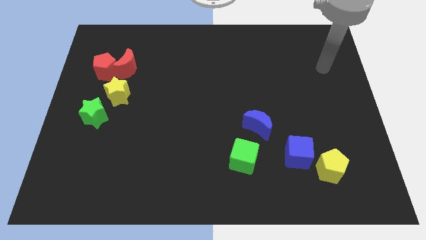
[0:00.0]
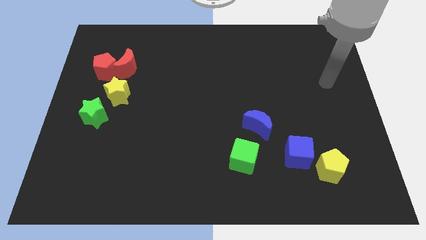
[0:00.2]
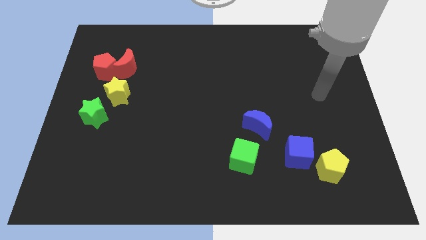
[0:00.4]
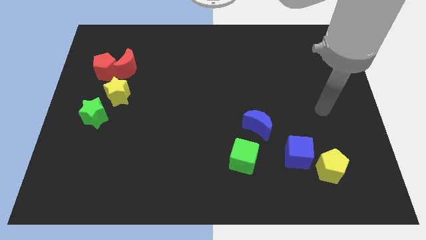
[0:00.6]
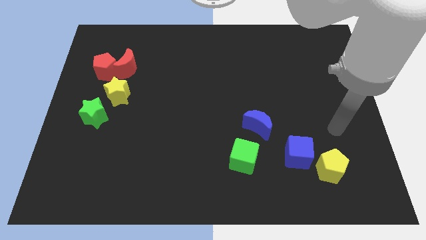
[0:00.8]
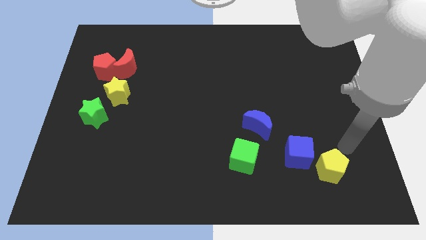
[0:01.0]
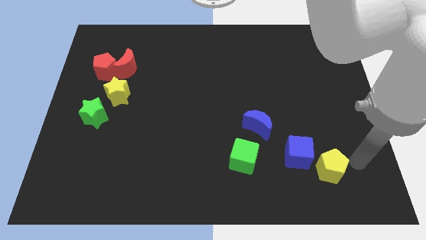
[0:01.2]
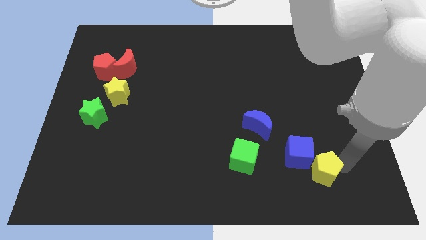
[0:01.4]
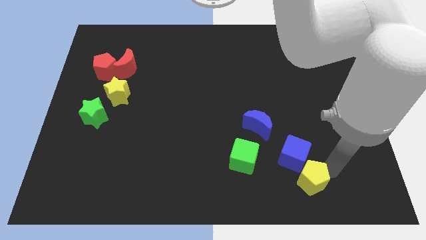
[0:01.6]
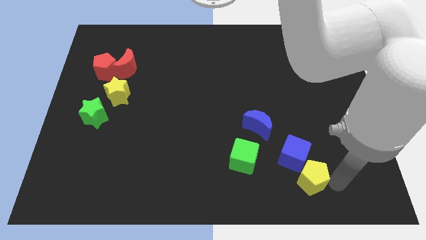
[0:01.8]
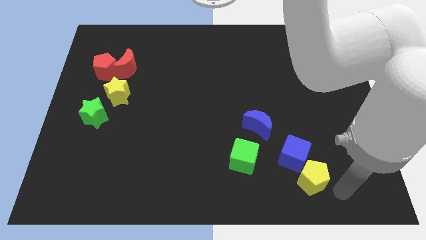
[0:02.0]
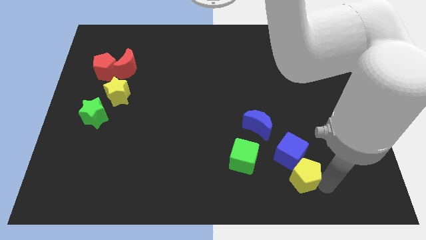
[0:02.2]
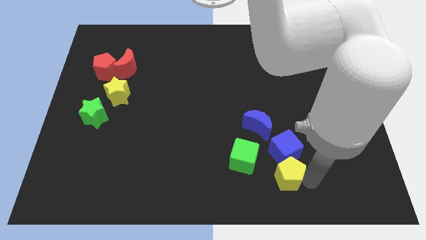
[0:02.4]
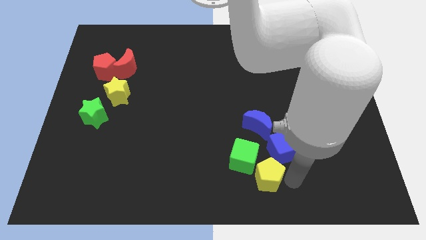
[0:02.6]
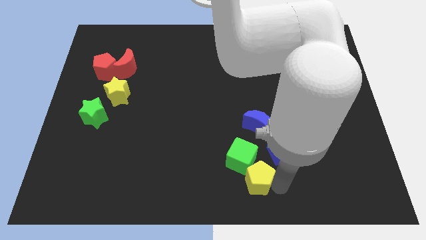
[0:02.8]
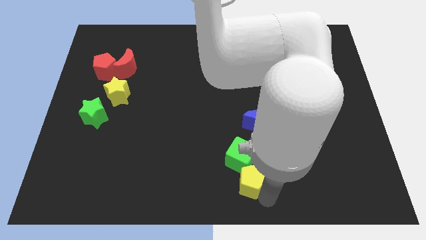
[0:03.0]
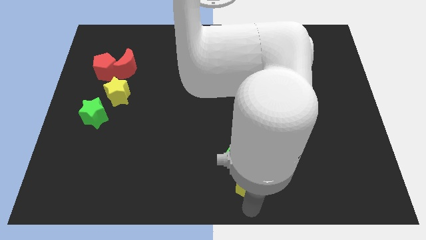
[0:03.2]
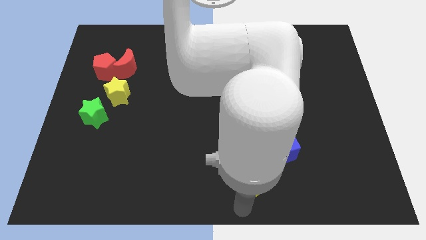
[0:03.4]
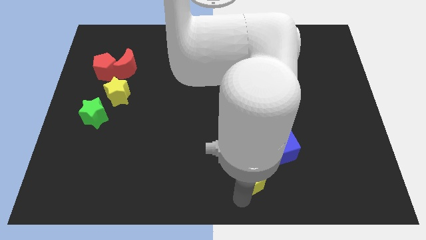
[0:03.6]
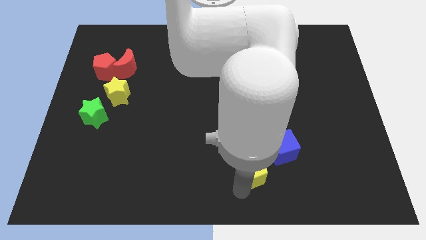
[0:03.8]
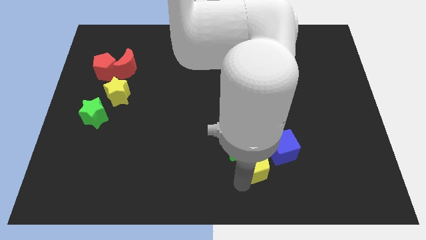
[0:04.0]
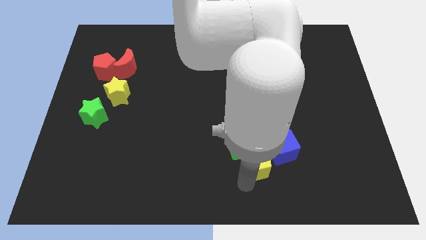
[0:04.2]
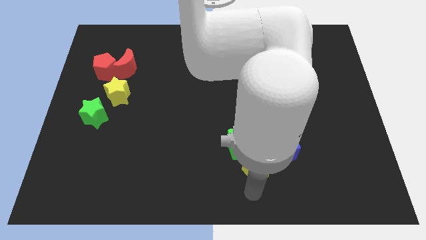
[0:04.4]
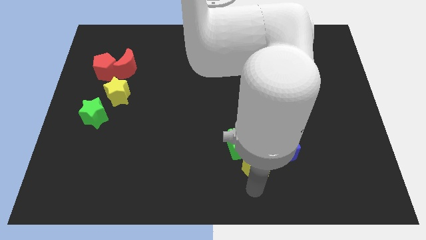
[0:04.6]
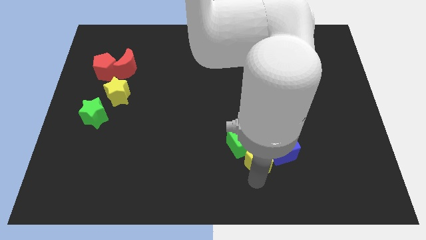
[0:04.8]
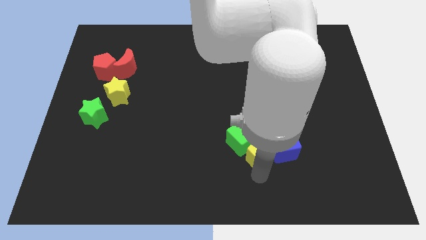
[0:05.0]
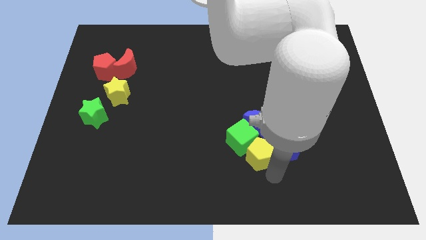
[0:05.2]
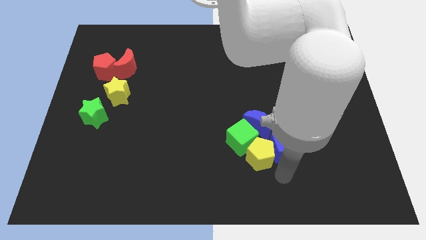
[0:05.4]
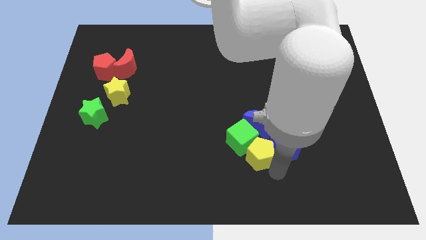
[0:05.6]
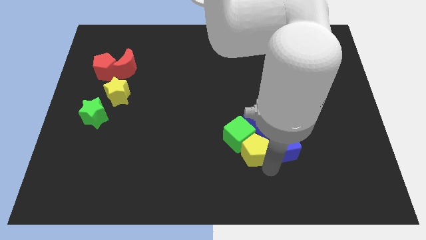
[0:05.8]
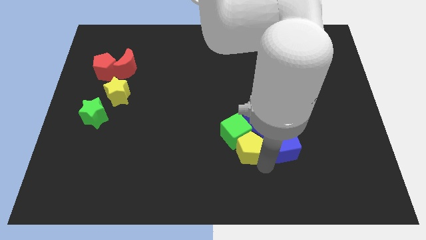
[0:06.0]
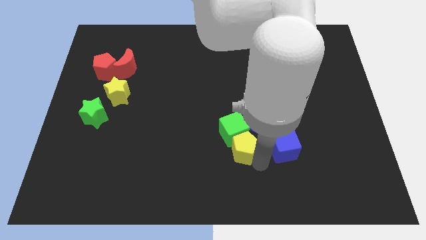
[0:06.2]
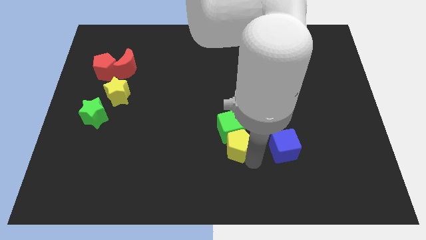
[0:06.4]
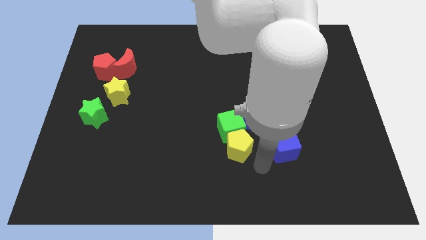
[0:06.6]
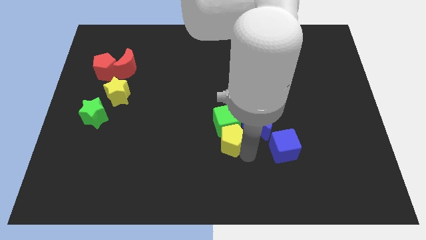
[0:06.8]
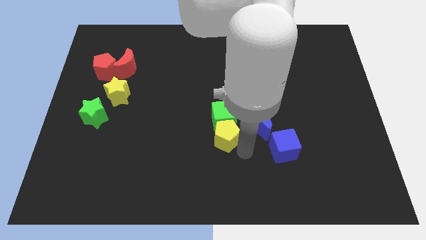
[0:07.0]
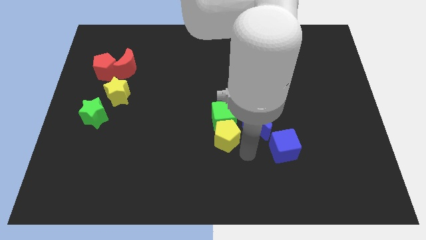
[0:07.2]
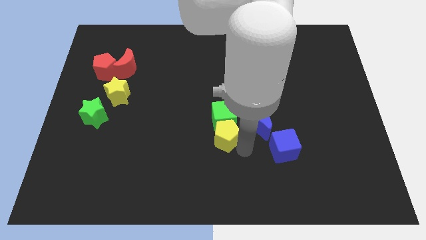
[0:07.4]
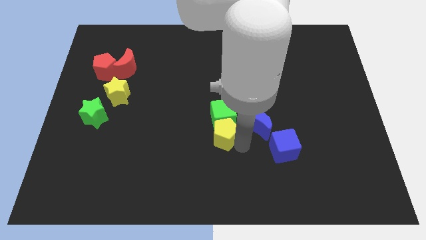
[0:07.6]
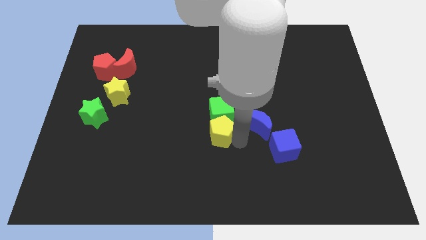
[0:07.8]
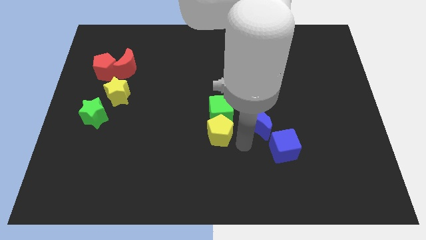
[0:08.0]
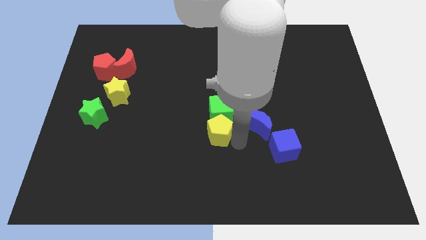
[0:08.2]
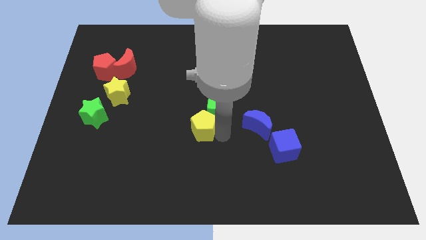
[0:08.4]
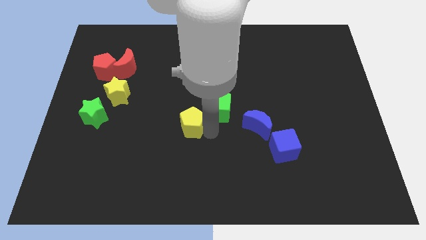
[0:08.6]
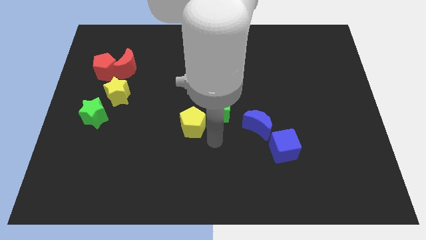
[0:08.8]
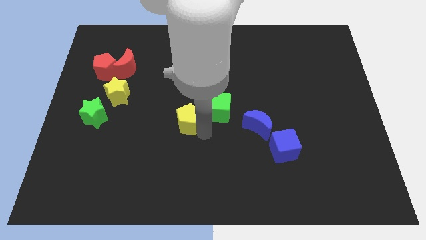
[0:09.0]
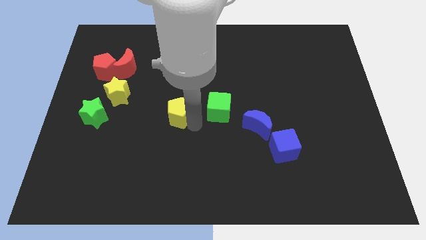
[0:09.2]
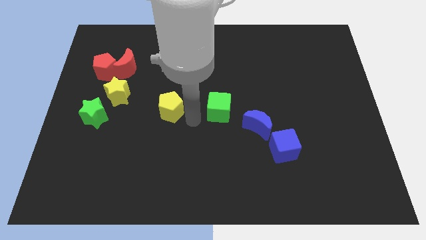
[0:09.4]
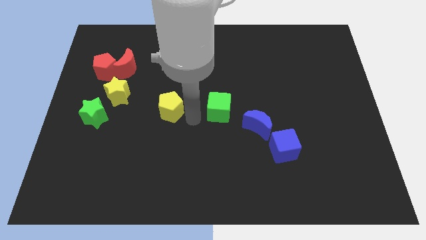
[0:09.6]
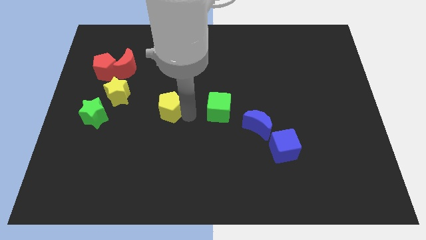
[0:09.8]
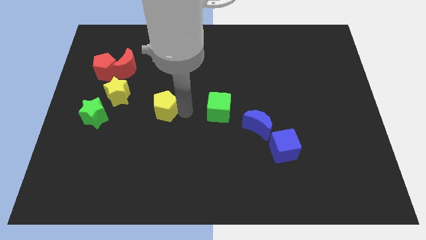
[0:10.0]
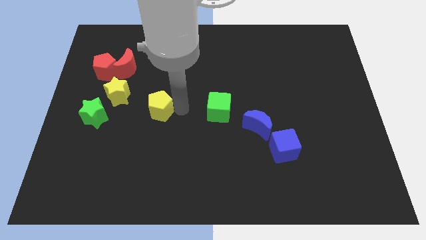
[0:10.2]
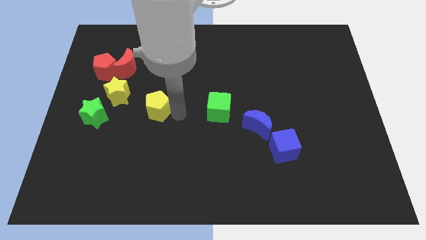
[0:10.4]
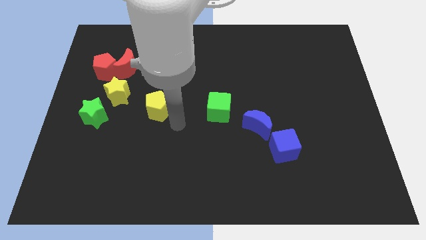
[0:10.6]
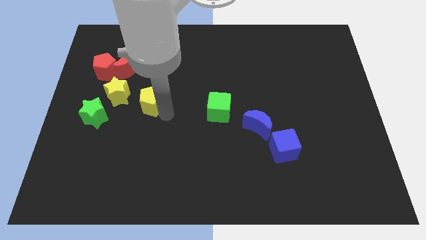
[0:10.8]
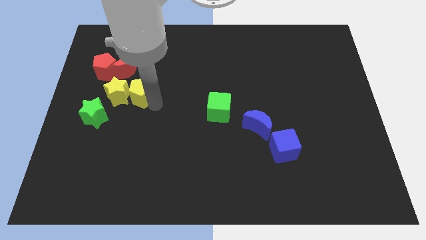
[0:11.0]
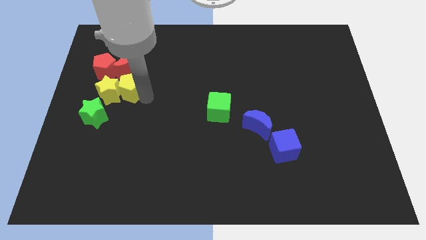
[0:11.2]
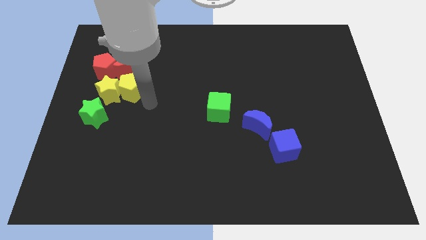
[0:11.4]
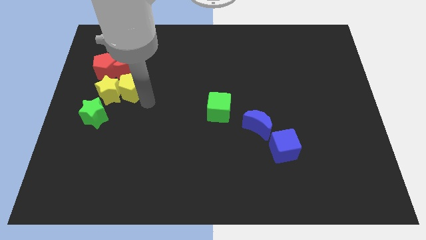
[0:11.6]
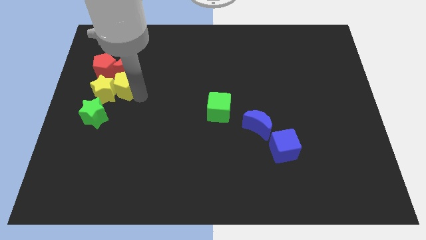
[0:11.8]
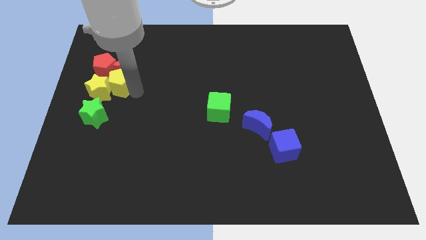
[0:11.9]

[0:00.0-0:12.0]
put the yellow pentagon to the bottom left side of the red moon

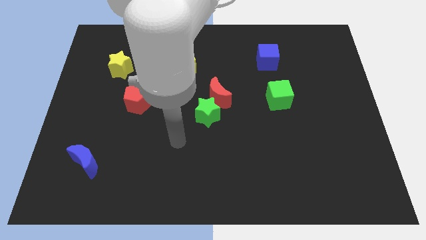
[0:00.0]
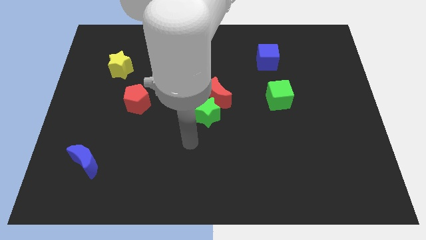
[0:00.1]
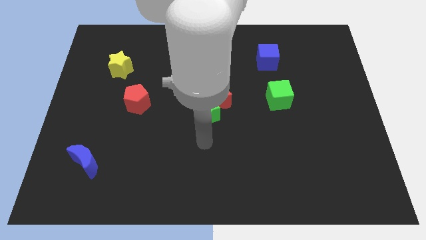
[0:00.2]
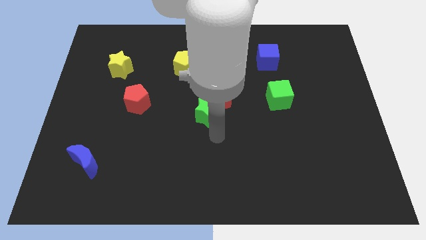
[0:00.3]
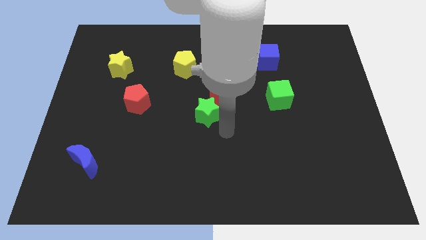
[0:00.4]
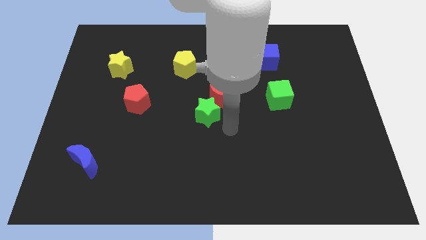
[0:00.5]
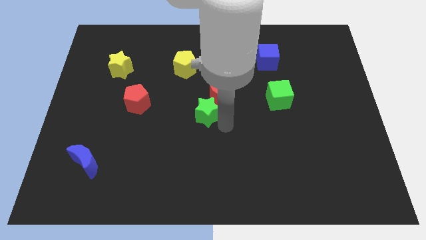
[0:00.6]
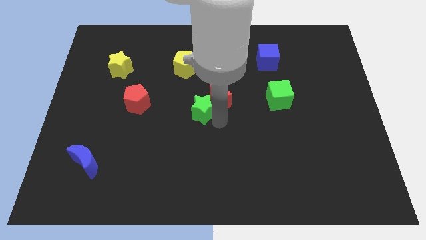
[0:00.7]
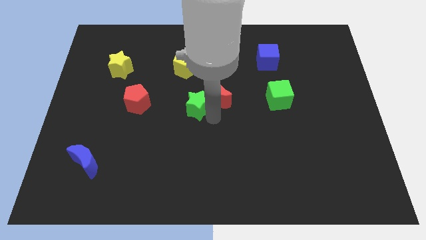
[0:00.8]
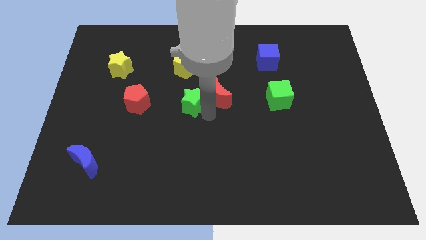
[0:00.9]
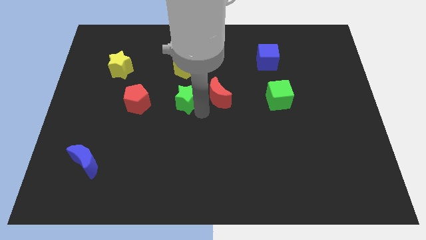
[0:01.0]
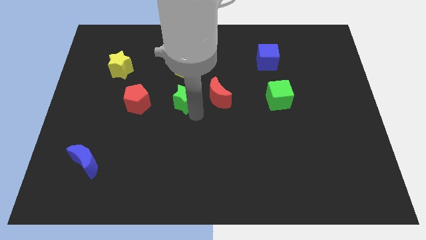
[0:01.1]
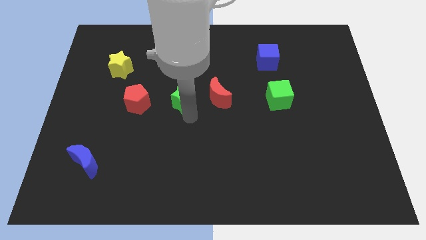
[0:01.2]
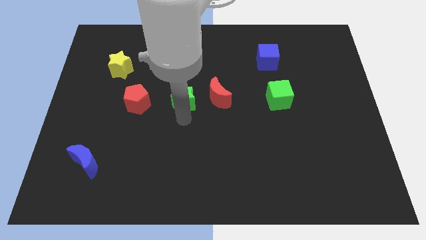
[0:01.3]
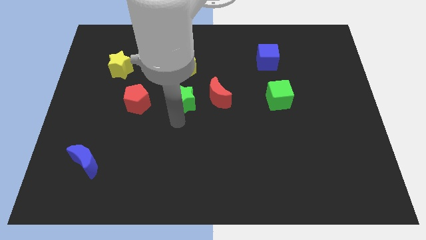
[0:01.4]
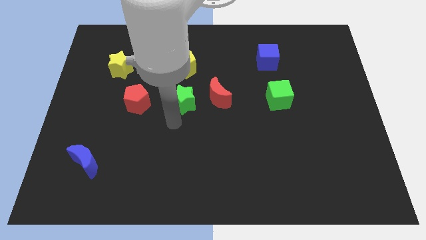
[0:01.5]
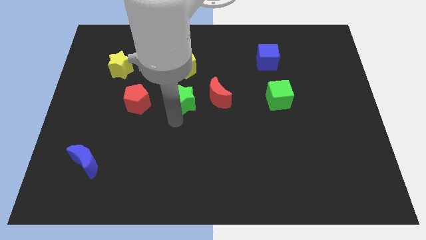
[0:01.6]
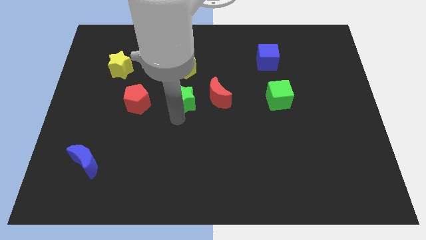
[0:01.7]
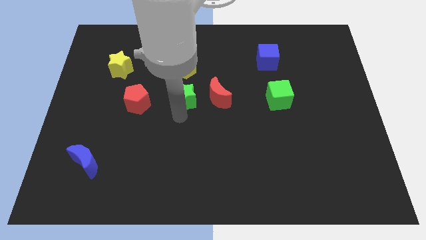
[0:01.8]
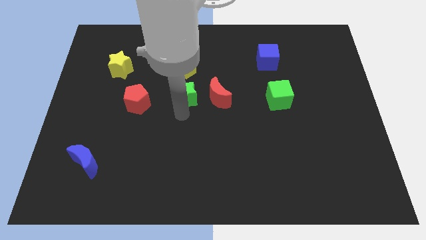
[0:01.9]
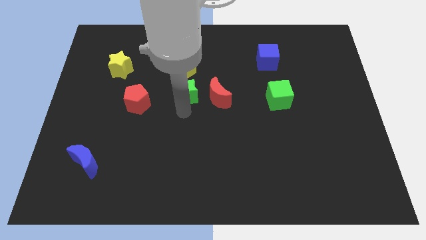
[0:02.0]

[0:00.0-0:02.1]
push the green star diagonally up and to the left of the red moon

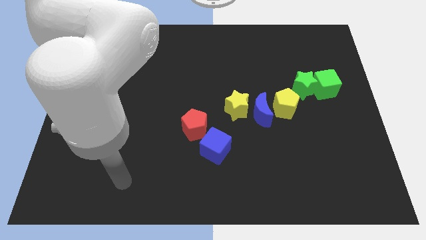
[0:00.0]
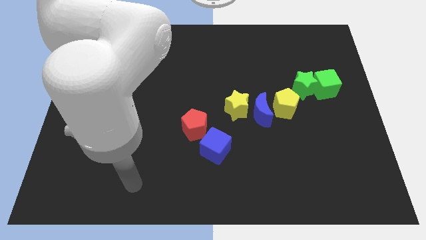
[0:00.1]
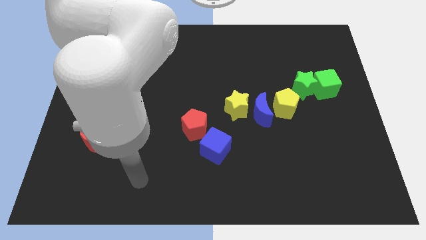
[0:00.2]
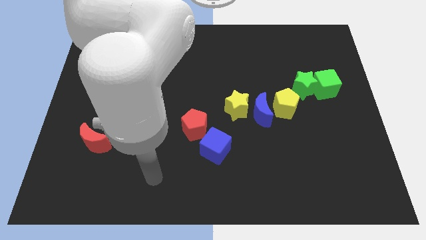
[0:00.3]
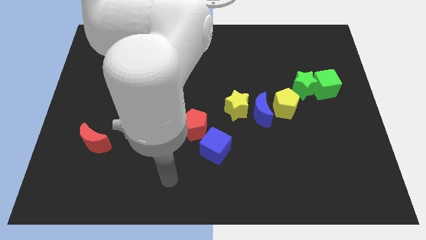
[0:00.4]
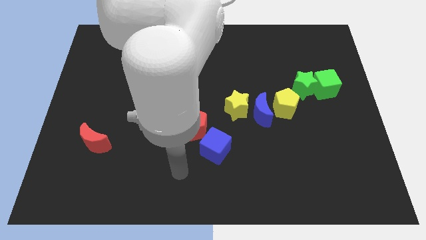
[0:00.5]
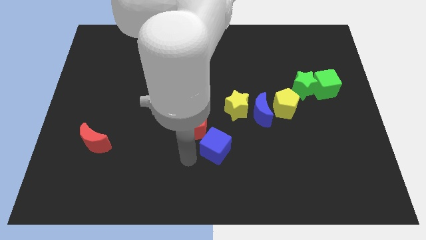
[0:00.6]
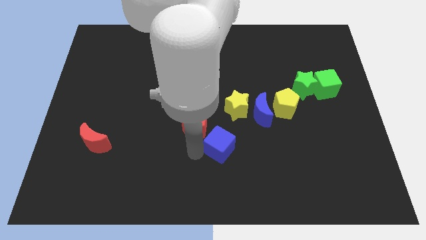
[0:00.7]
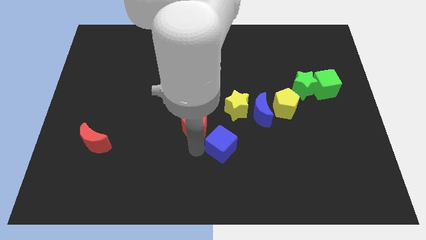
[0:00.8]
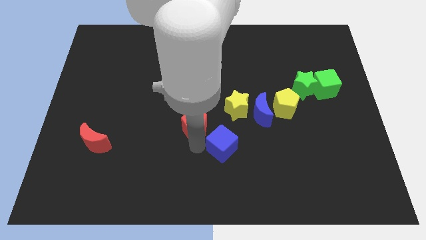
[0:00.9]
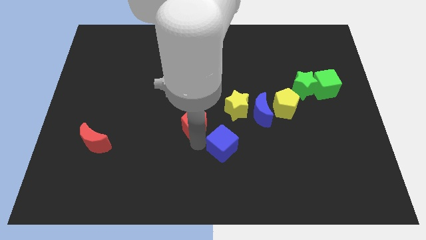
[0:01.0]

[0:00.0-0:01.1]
put the red pentagon to the left of the yellow star
